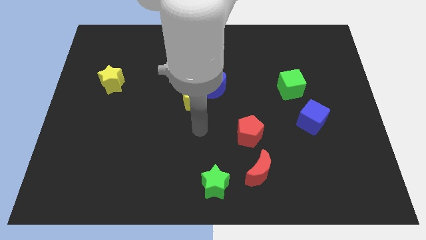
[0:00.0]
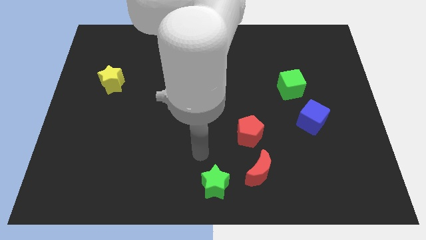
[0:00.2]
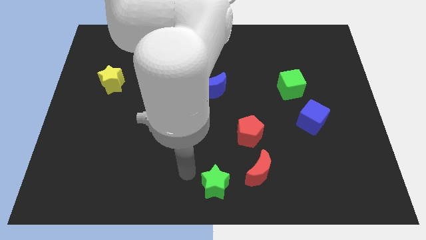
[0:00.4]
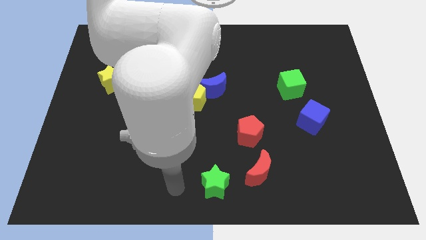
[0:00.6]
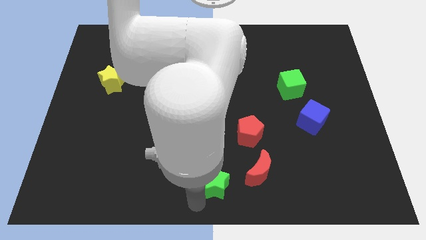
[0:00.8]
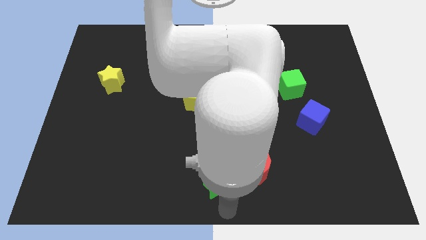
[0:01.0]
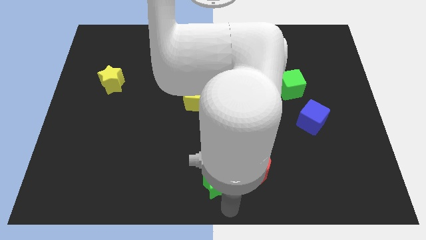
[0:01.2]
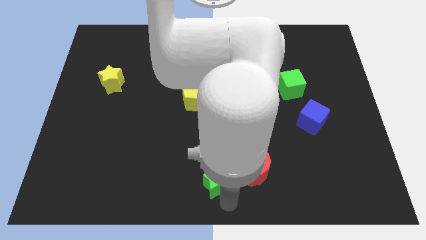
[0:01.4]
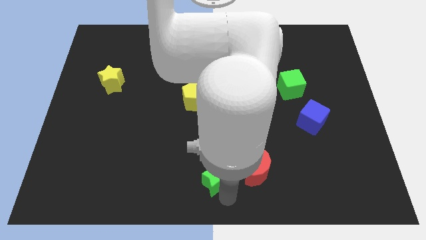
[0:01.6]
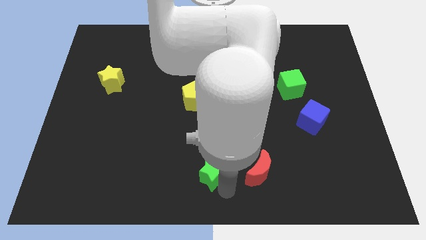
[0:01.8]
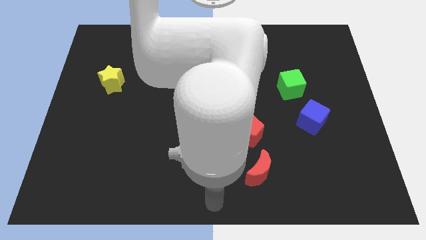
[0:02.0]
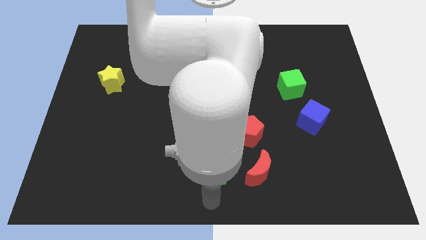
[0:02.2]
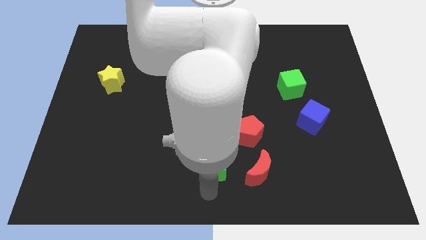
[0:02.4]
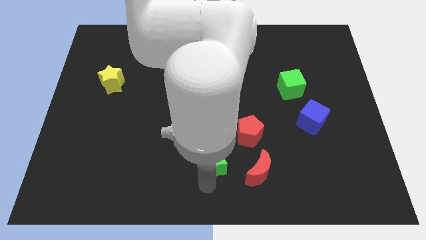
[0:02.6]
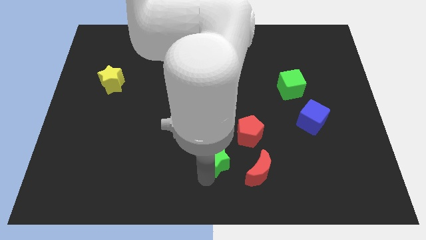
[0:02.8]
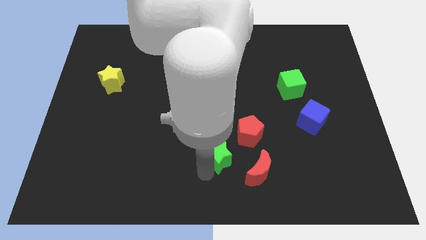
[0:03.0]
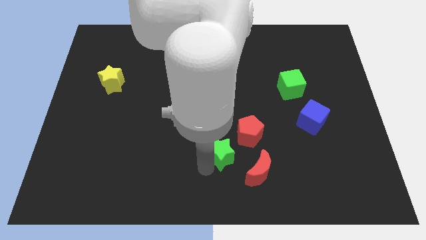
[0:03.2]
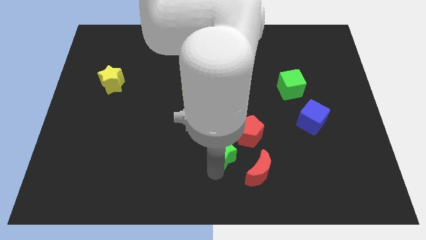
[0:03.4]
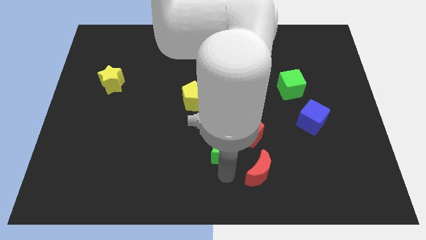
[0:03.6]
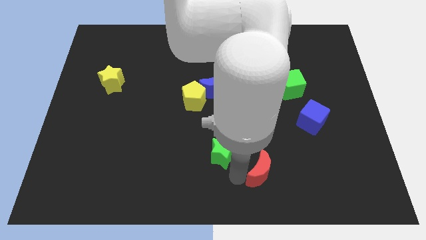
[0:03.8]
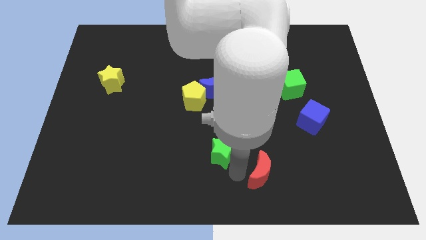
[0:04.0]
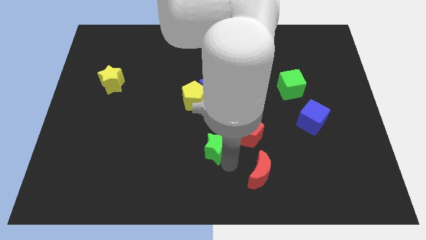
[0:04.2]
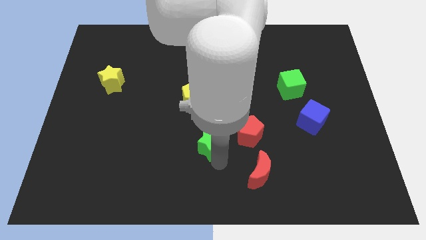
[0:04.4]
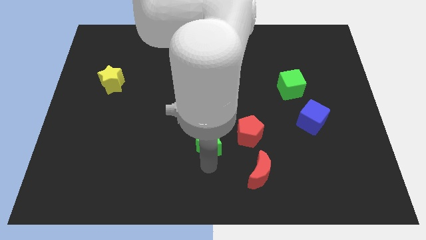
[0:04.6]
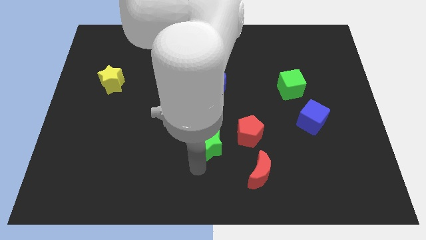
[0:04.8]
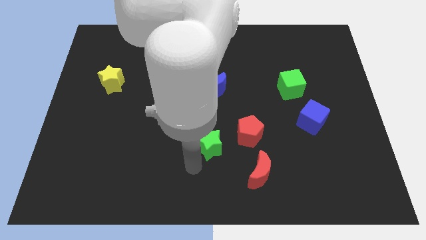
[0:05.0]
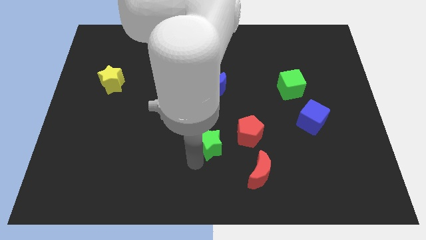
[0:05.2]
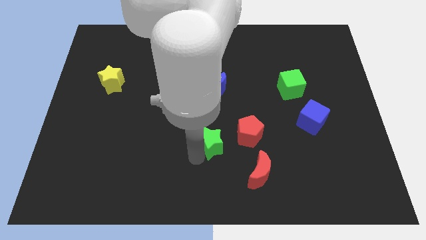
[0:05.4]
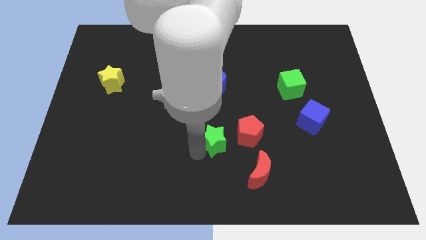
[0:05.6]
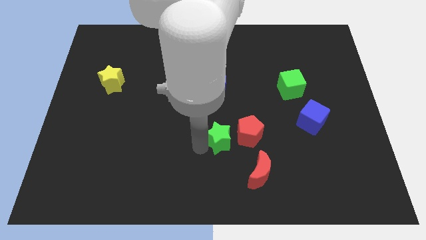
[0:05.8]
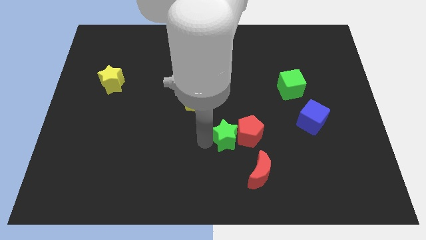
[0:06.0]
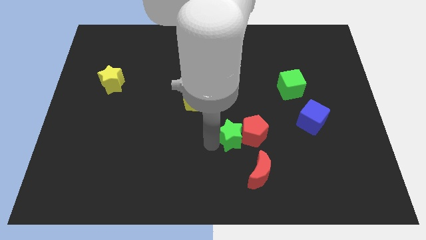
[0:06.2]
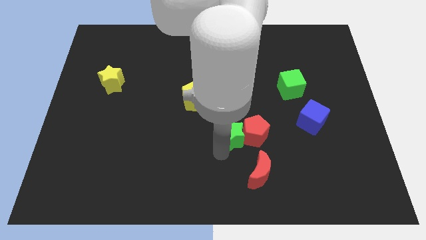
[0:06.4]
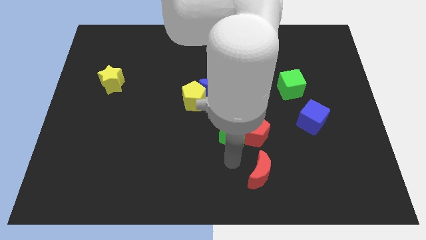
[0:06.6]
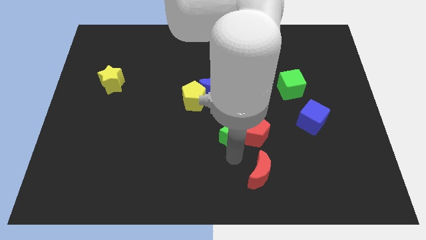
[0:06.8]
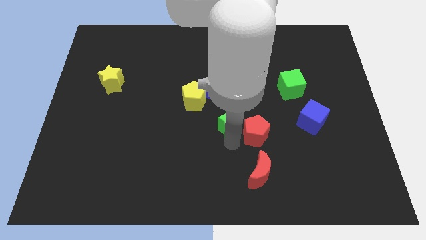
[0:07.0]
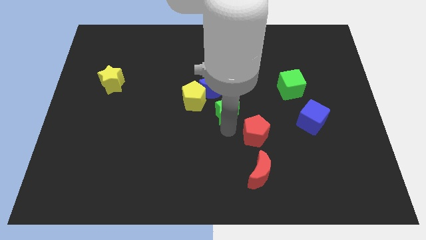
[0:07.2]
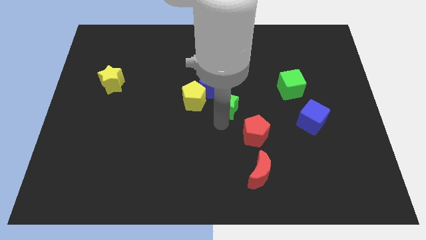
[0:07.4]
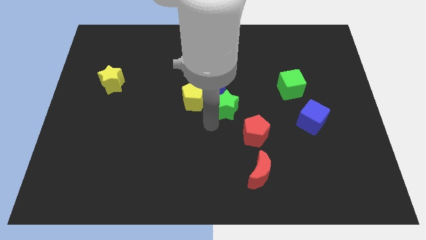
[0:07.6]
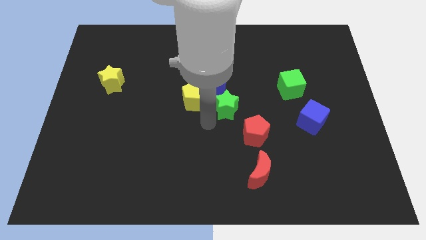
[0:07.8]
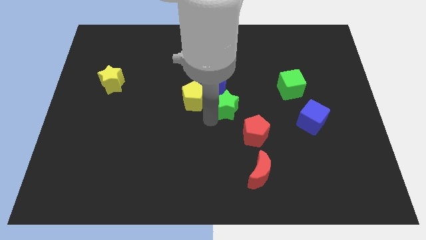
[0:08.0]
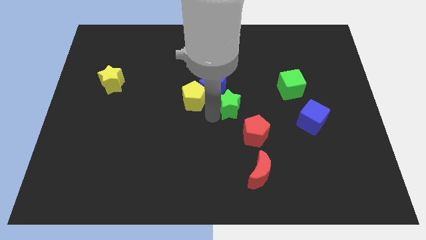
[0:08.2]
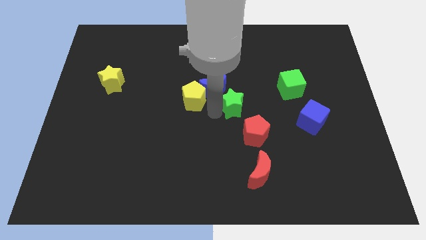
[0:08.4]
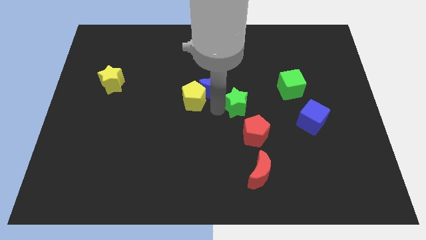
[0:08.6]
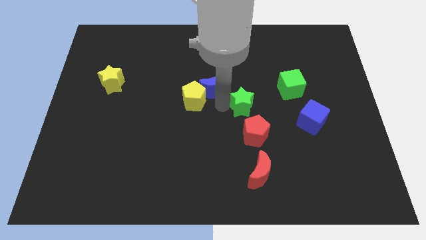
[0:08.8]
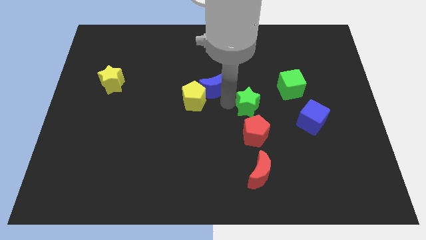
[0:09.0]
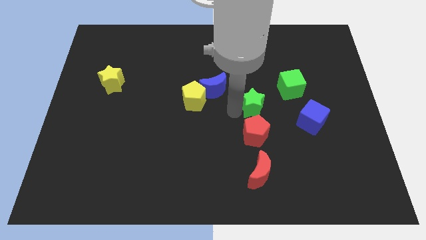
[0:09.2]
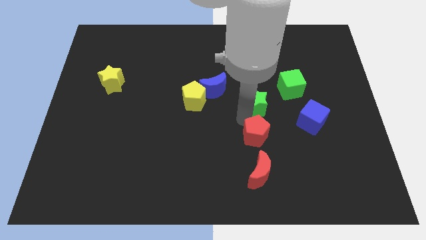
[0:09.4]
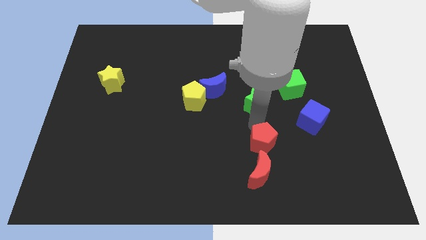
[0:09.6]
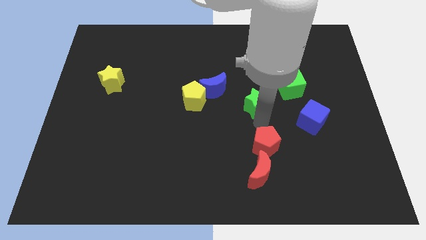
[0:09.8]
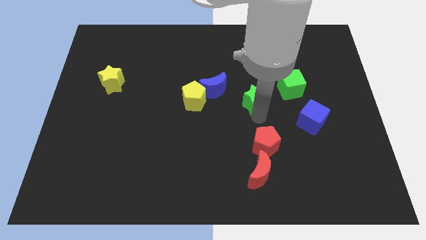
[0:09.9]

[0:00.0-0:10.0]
push the green star to the left of the green cube

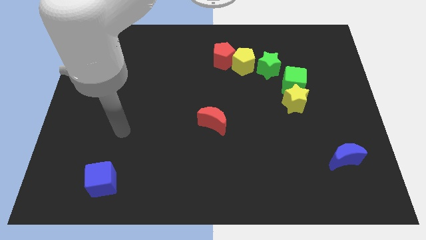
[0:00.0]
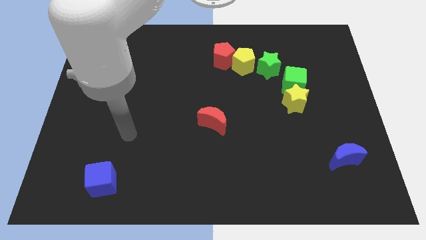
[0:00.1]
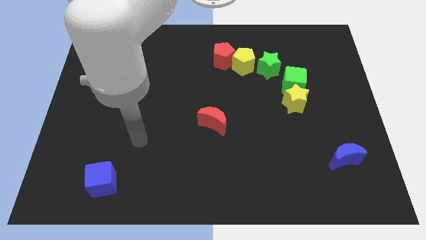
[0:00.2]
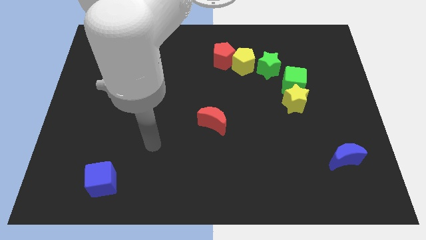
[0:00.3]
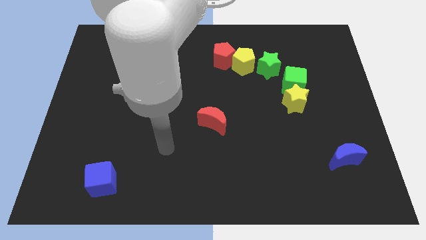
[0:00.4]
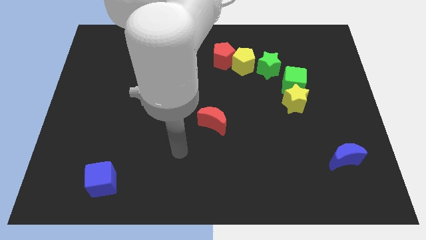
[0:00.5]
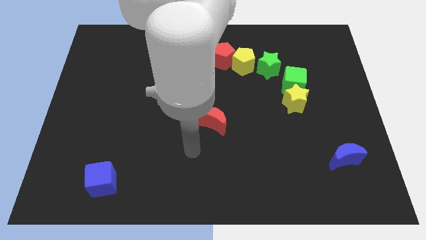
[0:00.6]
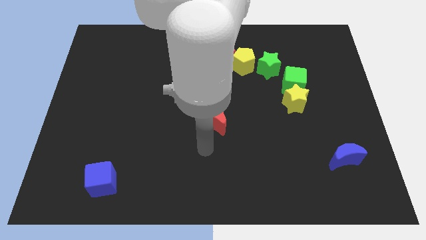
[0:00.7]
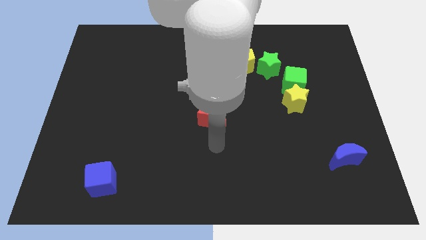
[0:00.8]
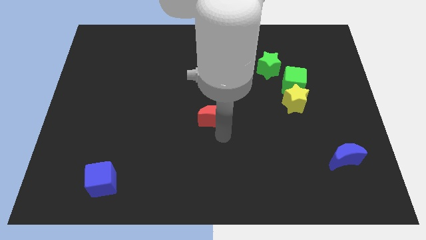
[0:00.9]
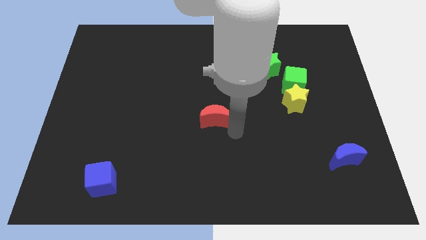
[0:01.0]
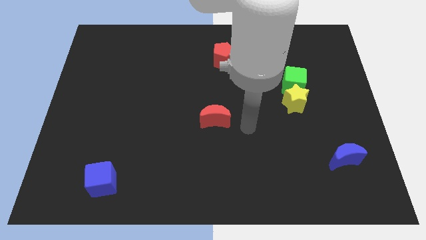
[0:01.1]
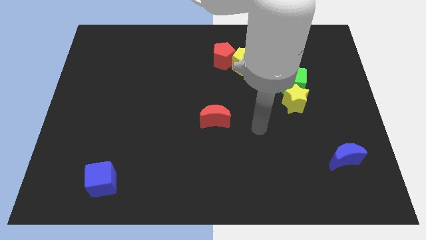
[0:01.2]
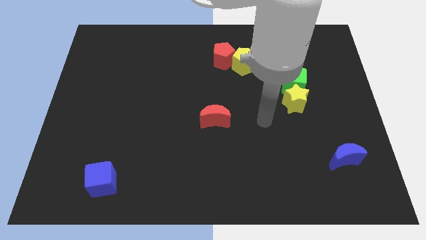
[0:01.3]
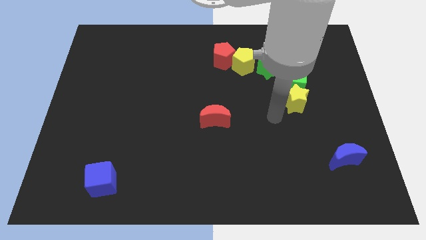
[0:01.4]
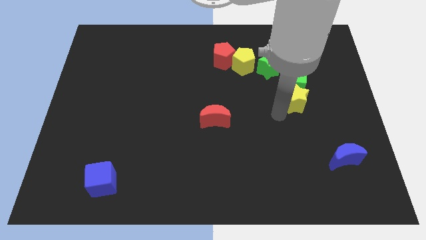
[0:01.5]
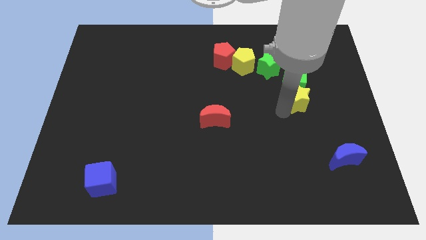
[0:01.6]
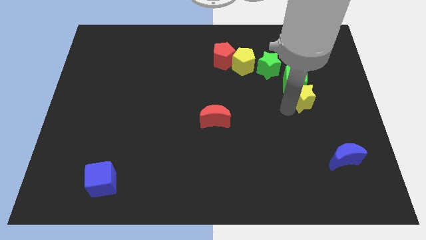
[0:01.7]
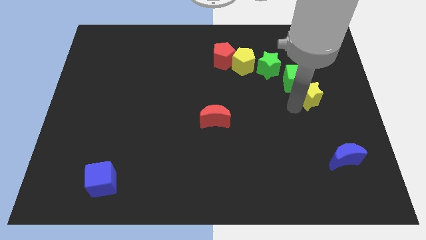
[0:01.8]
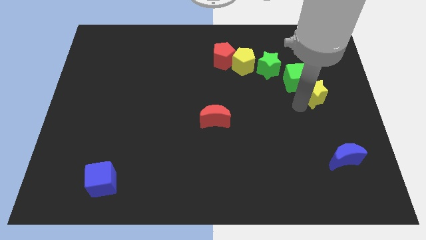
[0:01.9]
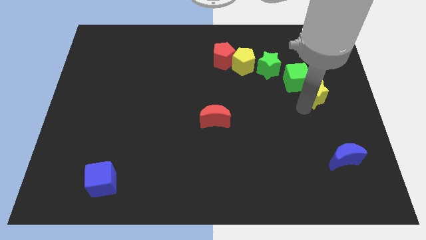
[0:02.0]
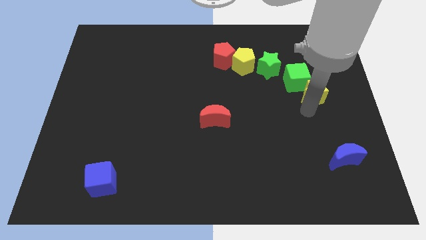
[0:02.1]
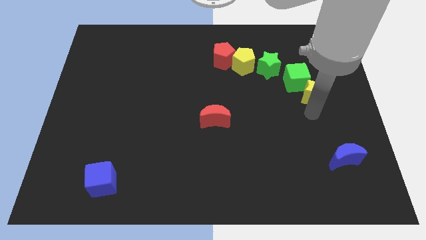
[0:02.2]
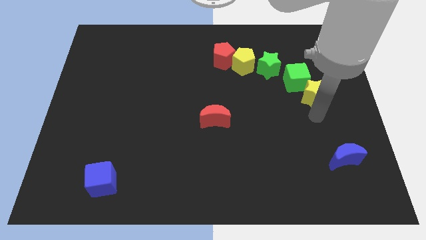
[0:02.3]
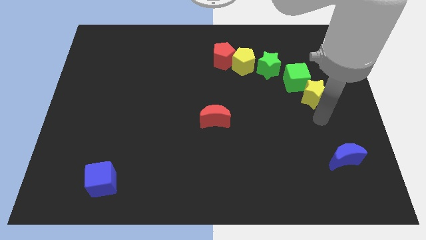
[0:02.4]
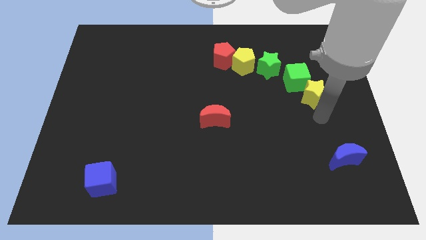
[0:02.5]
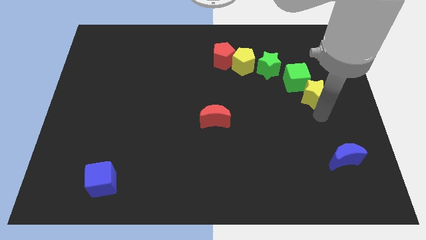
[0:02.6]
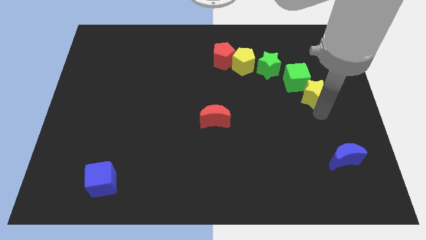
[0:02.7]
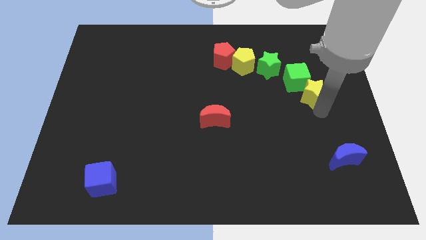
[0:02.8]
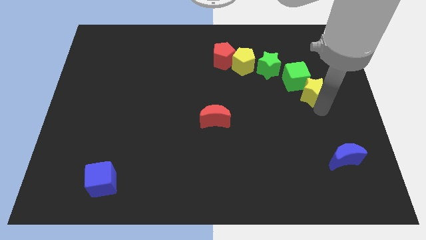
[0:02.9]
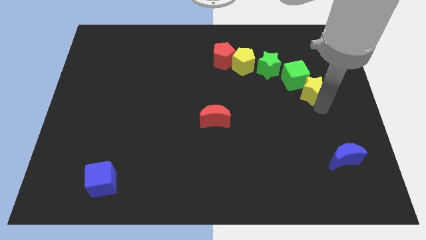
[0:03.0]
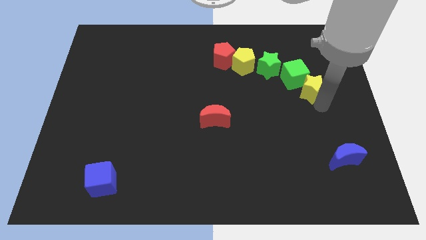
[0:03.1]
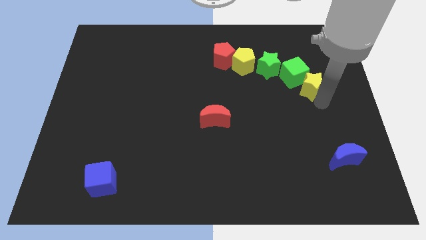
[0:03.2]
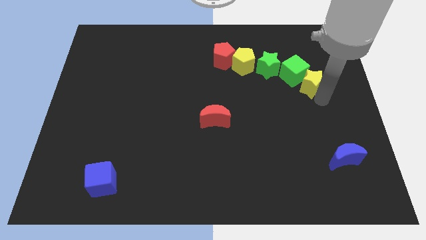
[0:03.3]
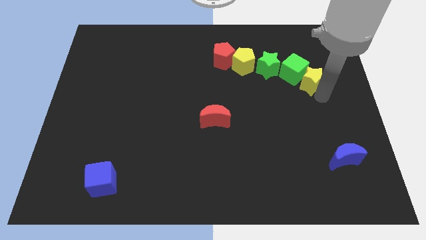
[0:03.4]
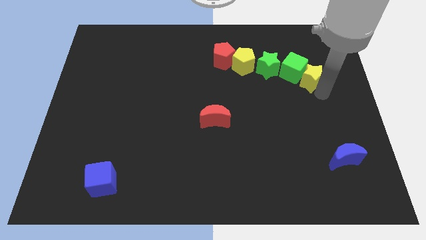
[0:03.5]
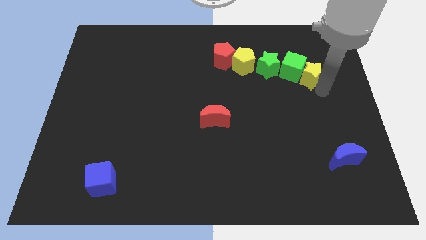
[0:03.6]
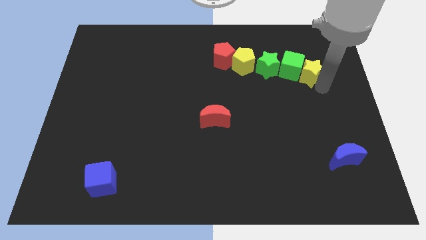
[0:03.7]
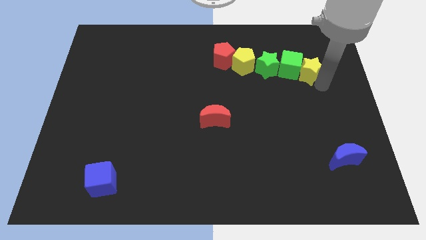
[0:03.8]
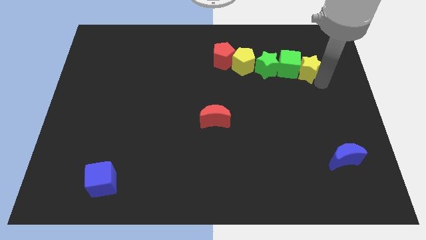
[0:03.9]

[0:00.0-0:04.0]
put the yellow star to the top right of the green cube
